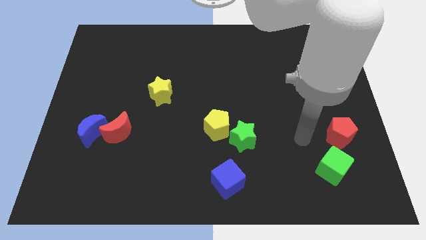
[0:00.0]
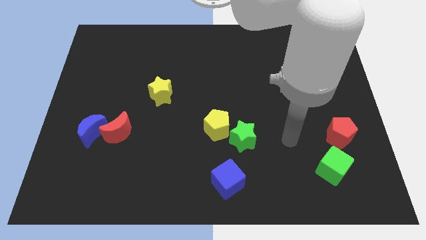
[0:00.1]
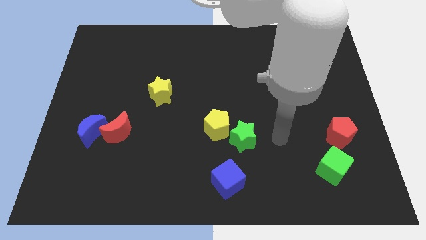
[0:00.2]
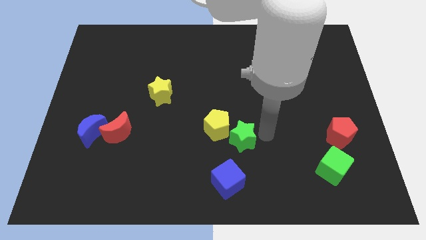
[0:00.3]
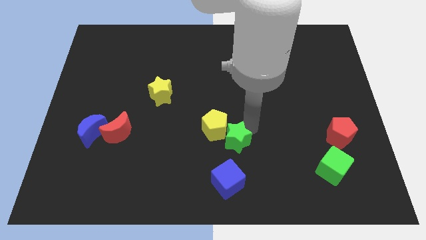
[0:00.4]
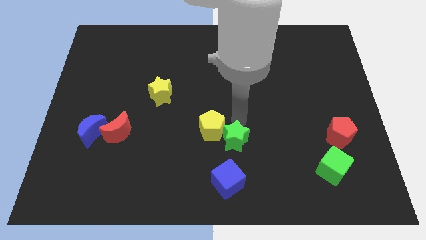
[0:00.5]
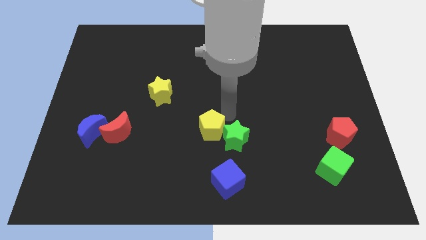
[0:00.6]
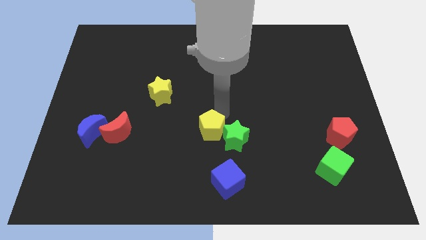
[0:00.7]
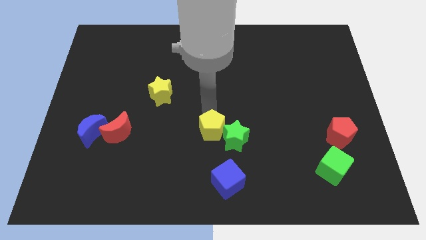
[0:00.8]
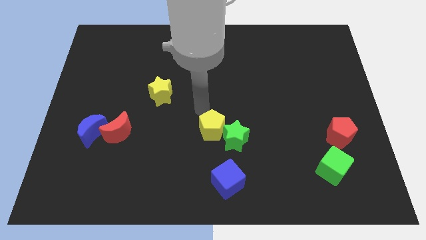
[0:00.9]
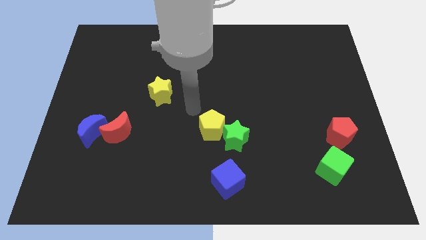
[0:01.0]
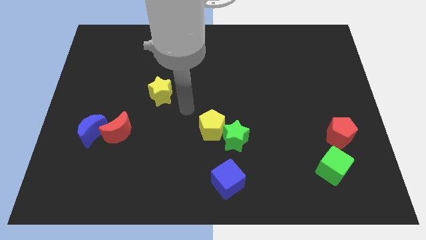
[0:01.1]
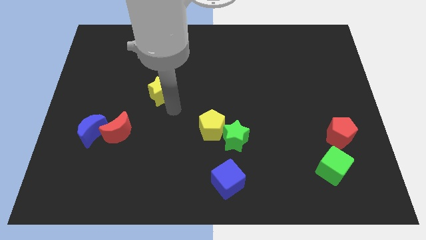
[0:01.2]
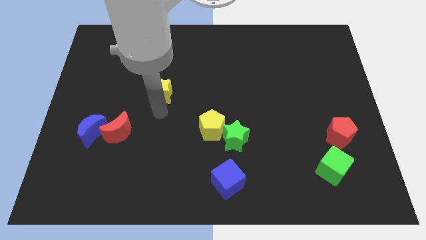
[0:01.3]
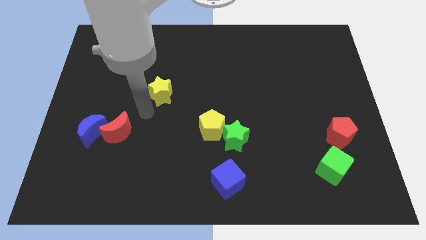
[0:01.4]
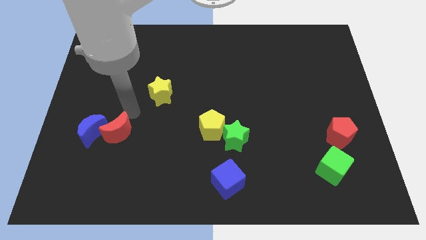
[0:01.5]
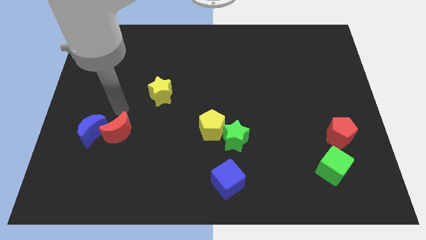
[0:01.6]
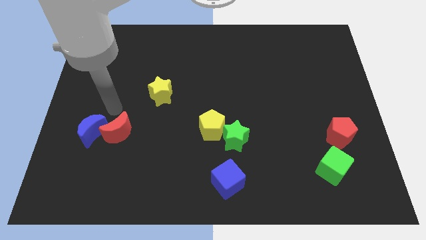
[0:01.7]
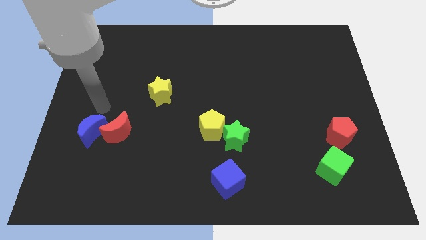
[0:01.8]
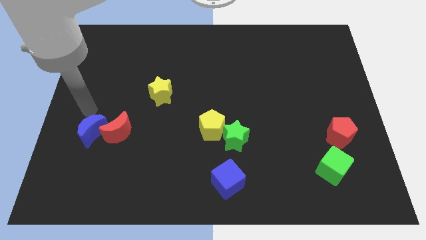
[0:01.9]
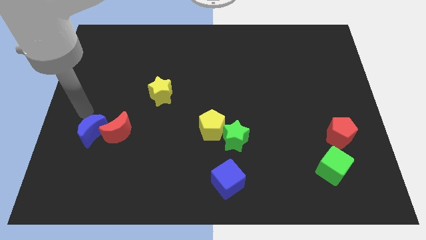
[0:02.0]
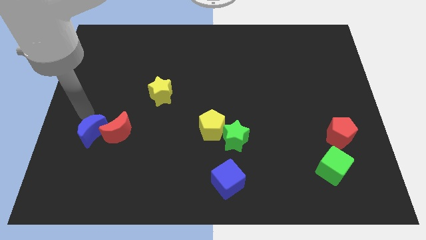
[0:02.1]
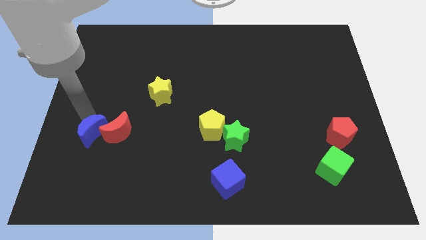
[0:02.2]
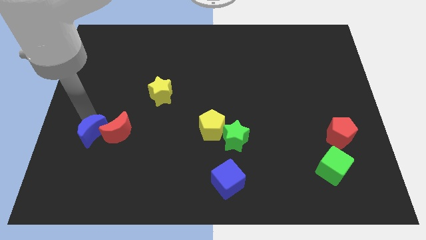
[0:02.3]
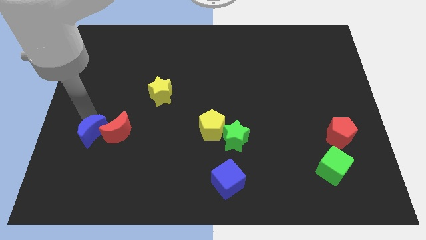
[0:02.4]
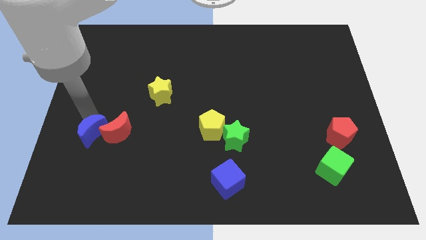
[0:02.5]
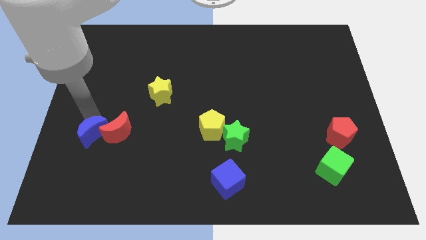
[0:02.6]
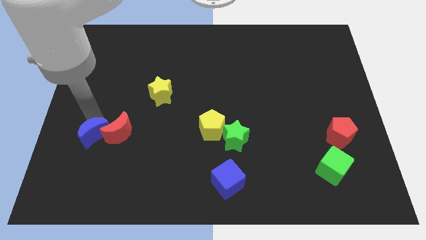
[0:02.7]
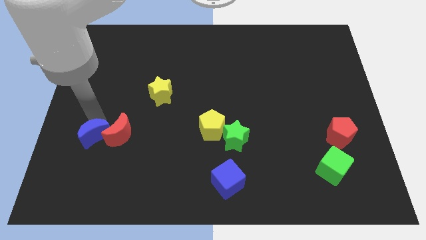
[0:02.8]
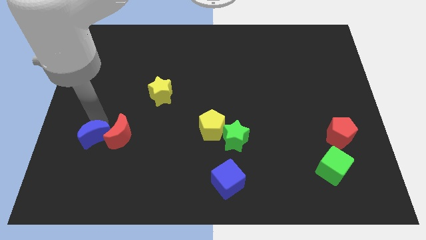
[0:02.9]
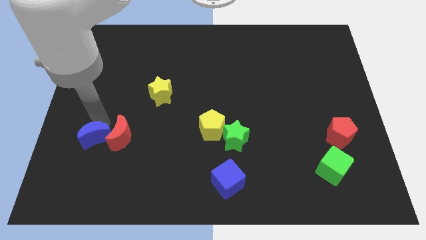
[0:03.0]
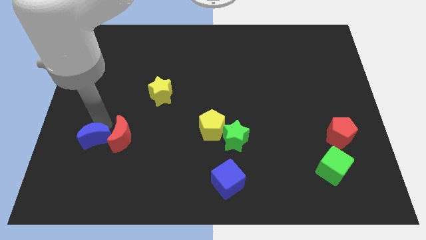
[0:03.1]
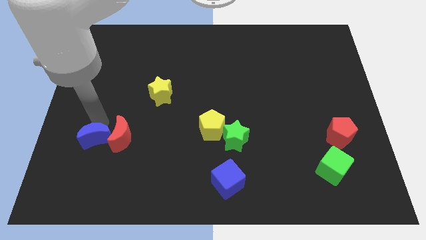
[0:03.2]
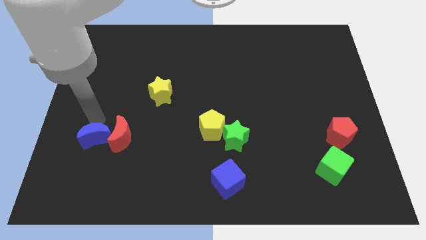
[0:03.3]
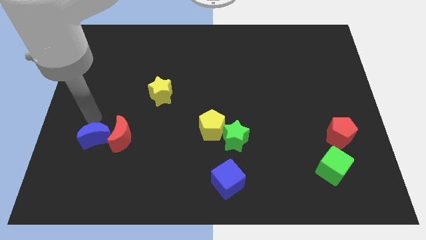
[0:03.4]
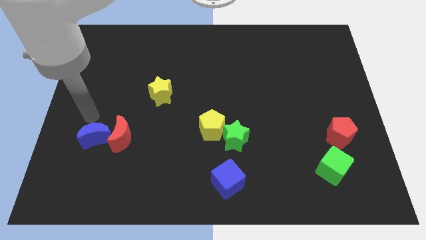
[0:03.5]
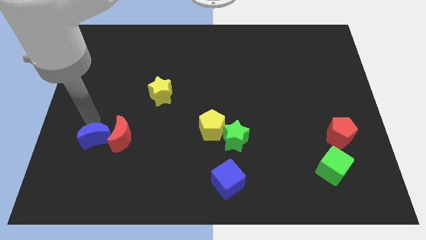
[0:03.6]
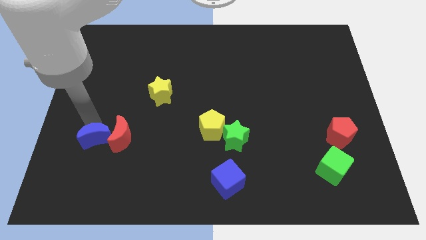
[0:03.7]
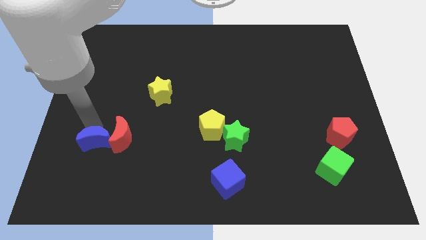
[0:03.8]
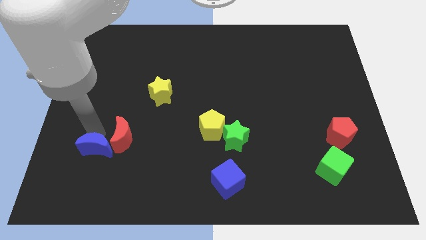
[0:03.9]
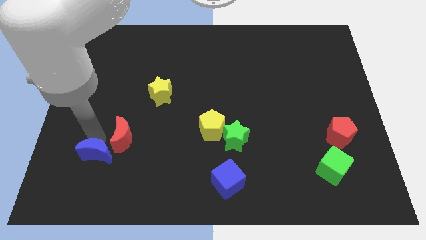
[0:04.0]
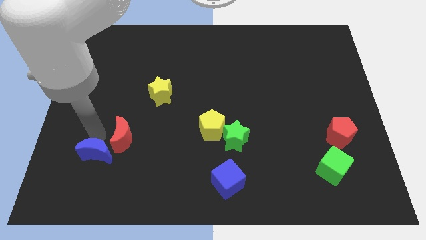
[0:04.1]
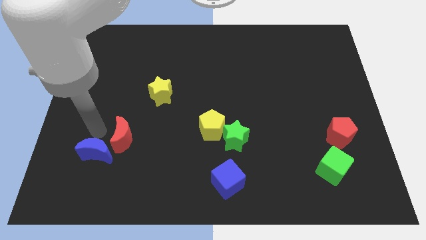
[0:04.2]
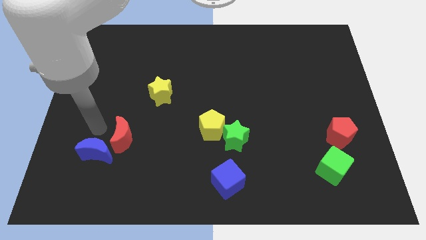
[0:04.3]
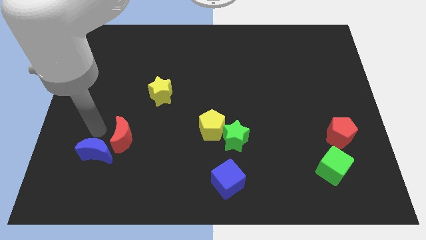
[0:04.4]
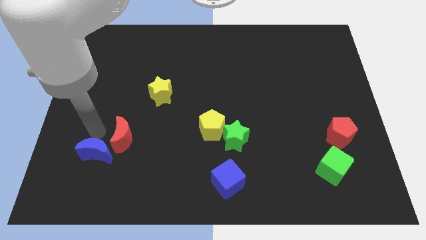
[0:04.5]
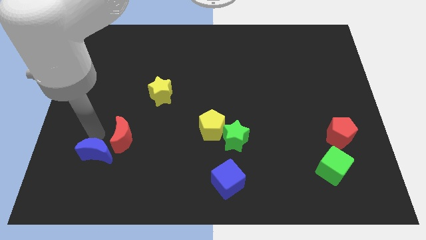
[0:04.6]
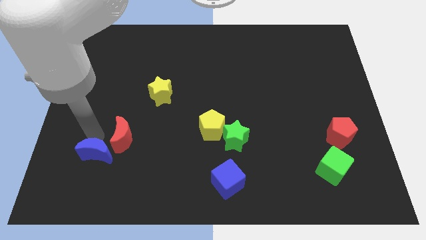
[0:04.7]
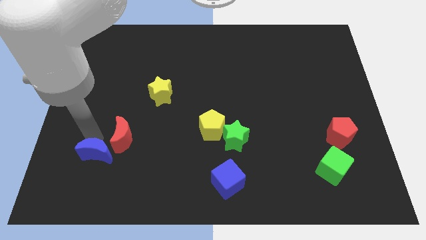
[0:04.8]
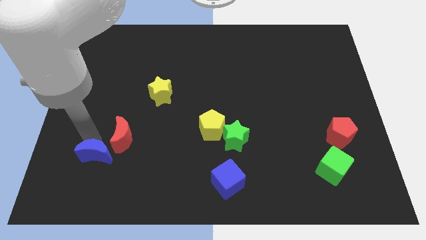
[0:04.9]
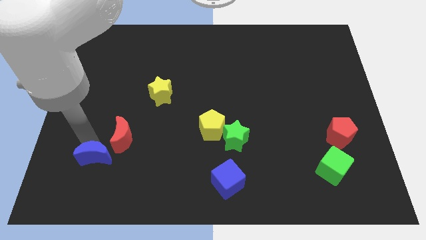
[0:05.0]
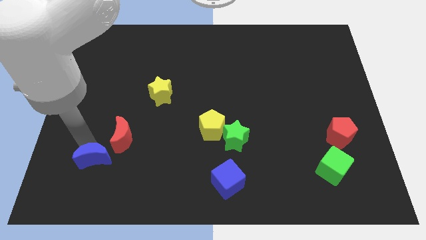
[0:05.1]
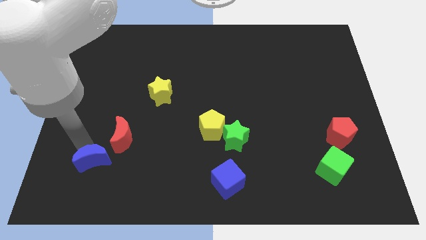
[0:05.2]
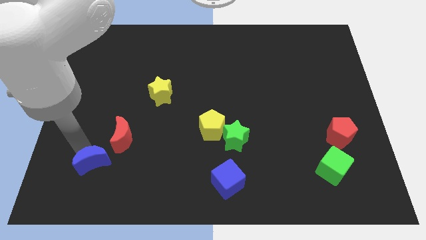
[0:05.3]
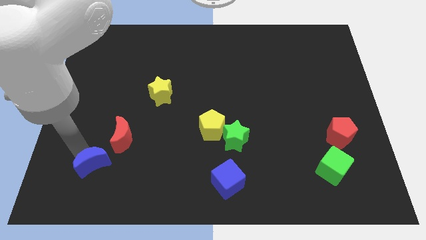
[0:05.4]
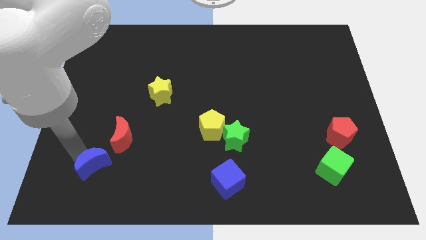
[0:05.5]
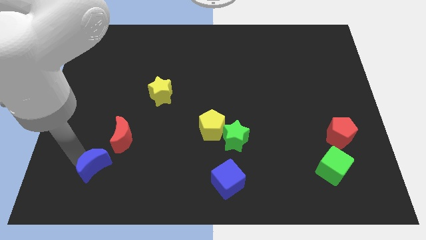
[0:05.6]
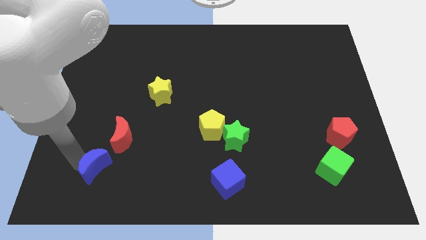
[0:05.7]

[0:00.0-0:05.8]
push the blue moon to the bottom of the red moon

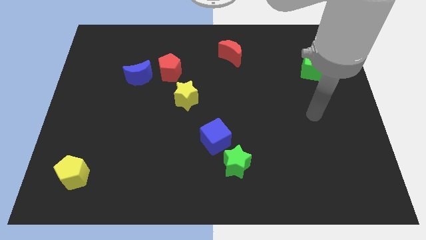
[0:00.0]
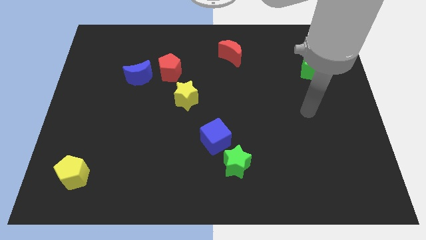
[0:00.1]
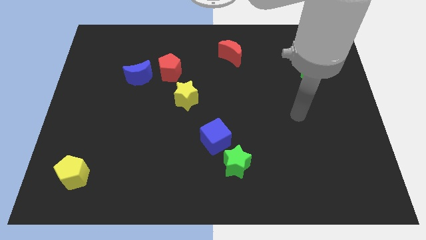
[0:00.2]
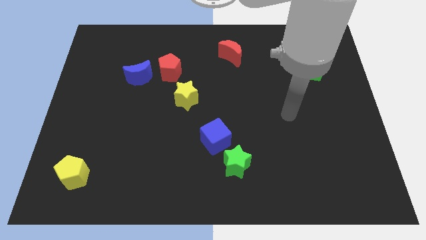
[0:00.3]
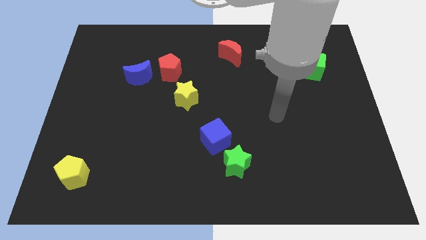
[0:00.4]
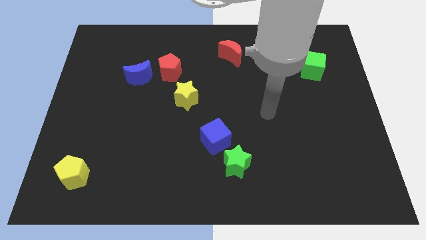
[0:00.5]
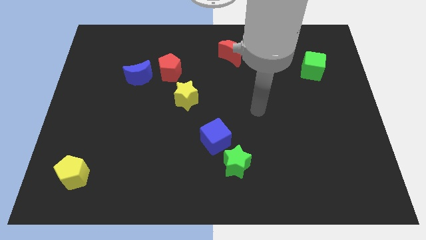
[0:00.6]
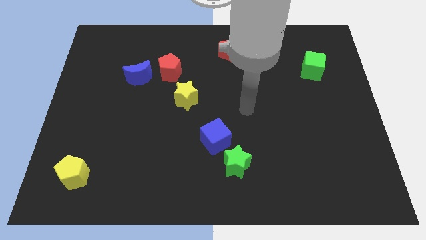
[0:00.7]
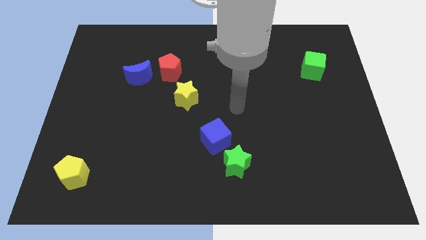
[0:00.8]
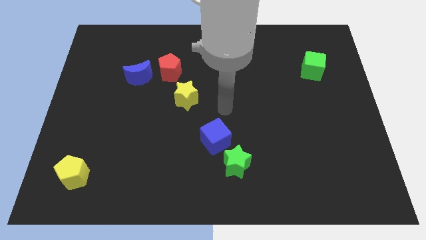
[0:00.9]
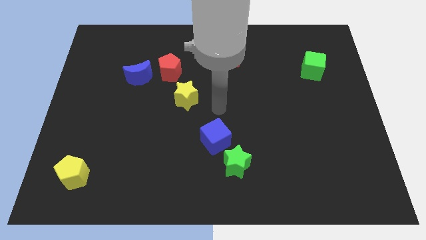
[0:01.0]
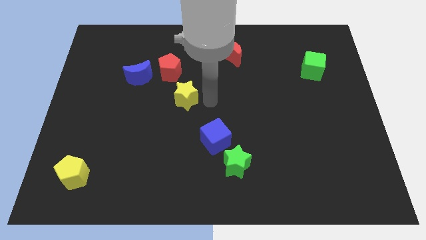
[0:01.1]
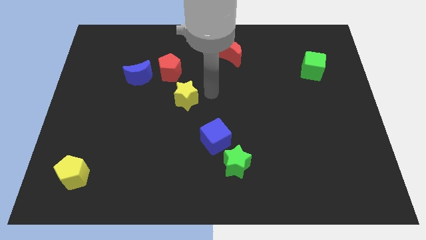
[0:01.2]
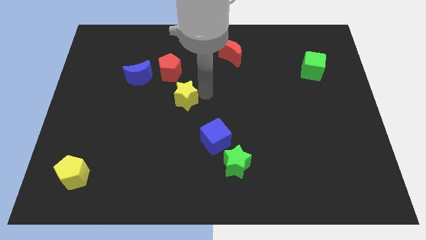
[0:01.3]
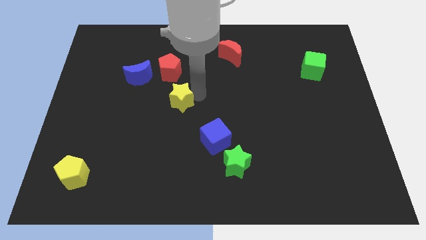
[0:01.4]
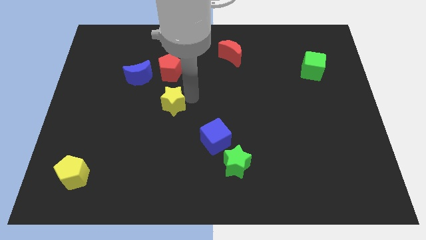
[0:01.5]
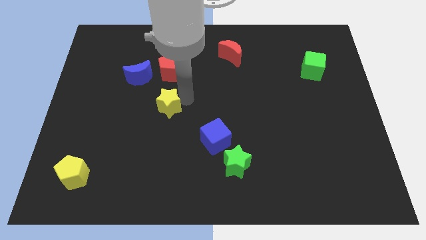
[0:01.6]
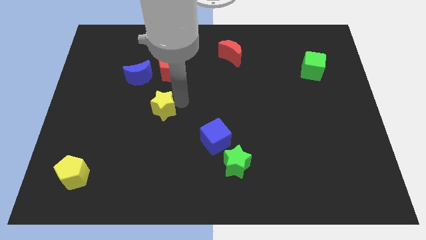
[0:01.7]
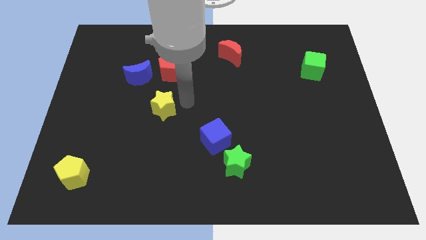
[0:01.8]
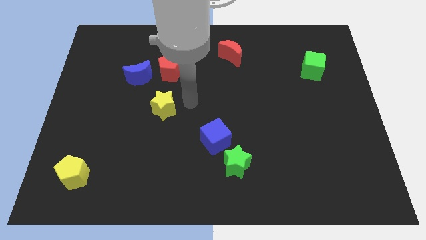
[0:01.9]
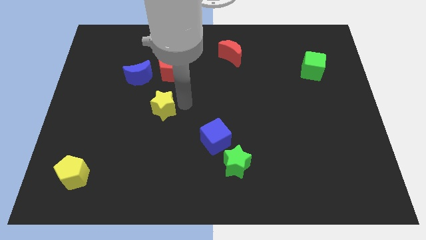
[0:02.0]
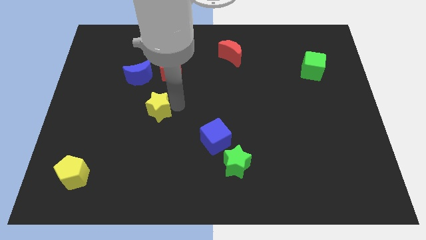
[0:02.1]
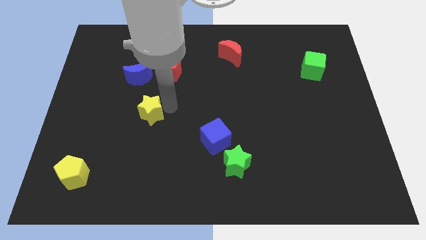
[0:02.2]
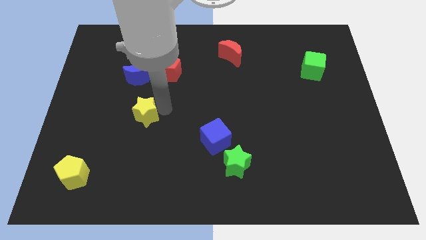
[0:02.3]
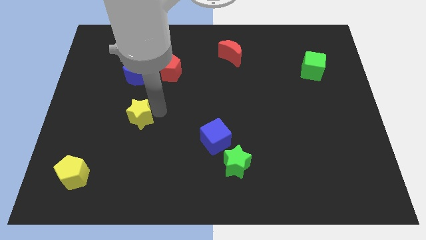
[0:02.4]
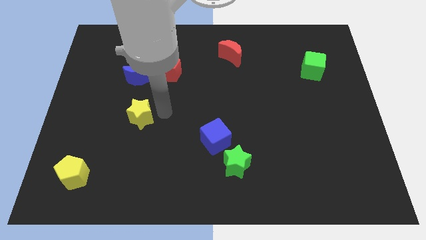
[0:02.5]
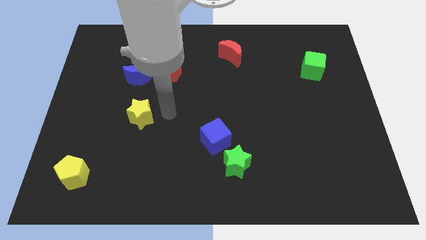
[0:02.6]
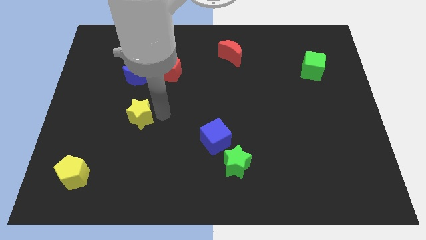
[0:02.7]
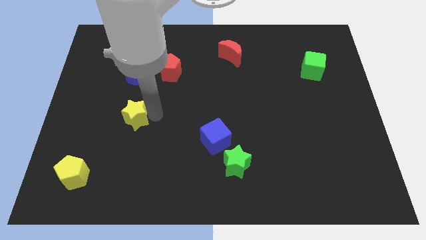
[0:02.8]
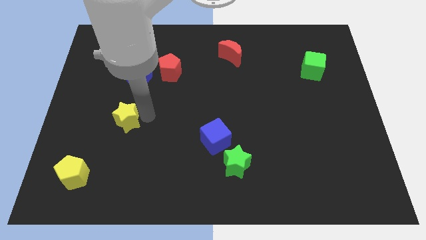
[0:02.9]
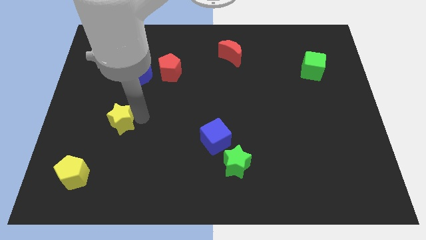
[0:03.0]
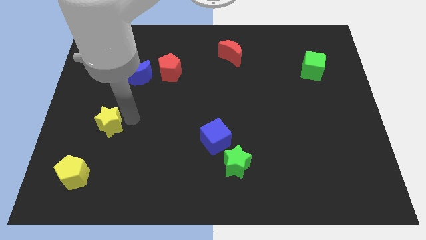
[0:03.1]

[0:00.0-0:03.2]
slide the yellow star to the top side of the yellow pentagon
